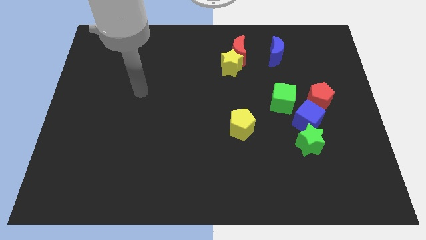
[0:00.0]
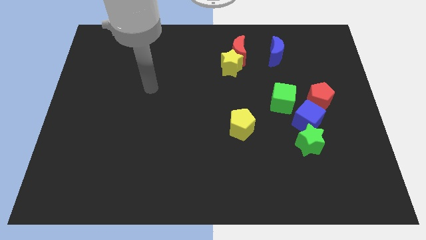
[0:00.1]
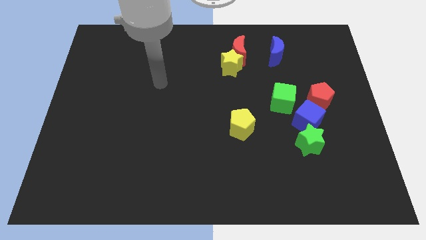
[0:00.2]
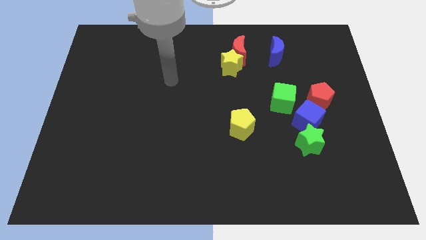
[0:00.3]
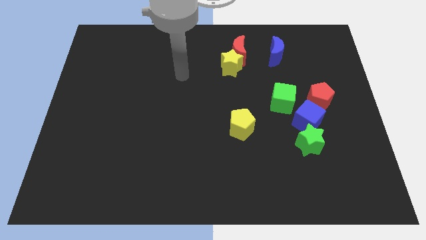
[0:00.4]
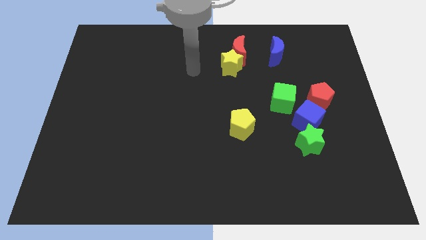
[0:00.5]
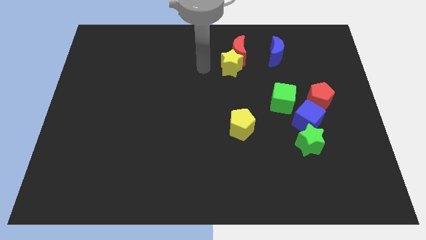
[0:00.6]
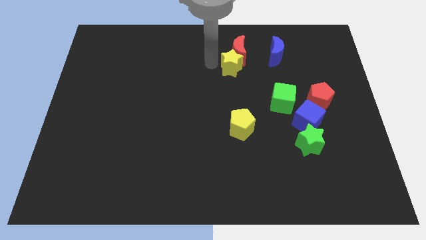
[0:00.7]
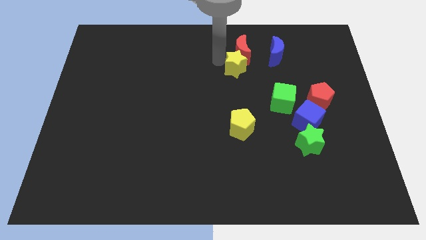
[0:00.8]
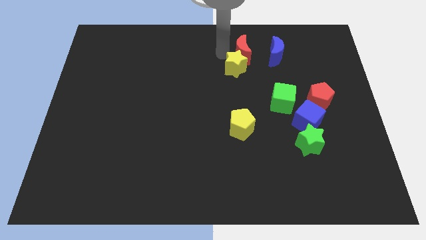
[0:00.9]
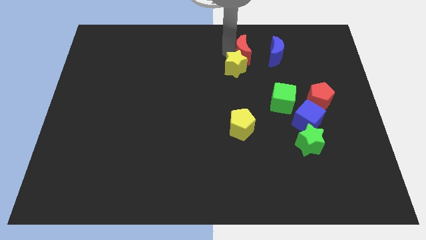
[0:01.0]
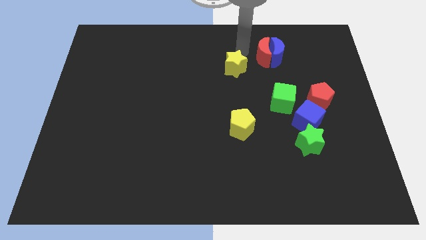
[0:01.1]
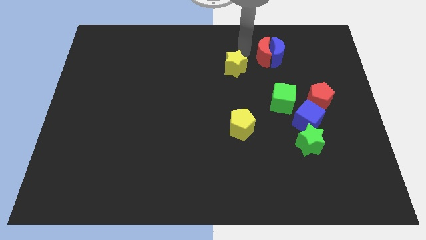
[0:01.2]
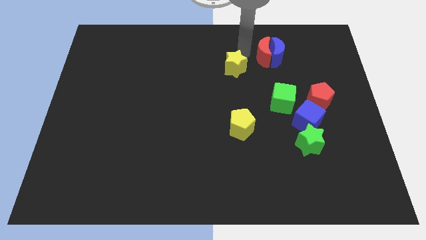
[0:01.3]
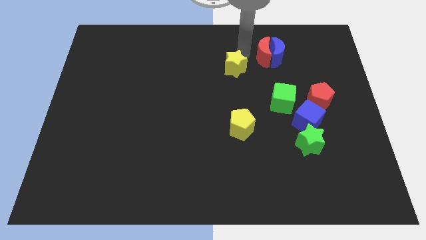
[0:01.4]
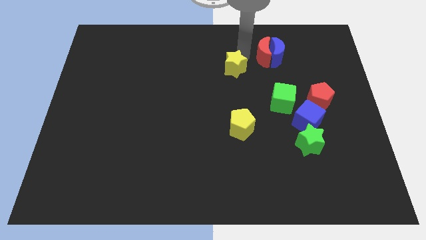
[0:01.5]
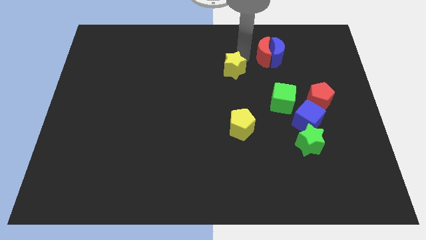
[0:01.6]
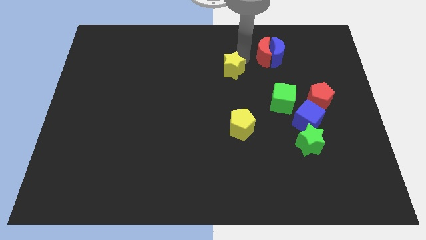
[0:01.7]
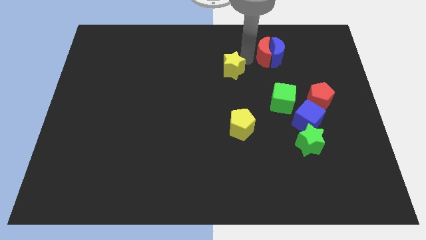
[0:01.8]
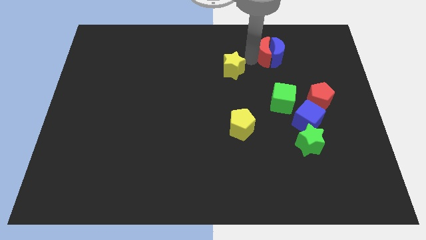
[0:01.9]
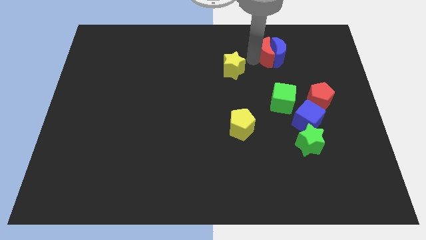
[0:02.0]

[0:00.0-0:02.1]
separate the yellow star from the red moon

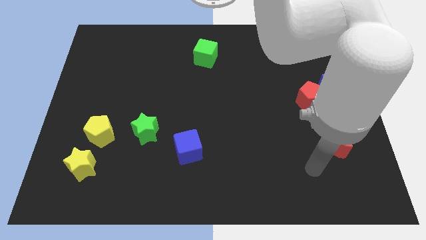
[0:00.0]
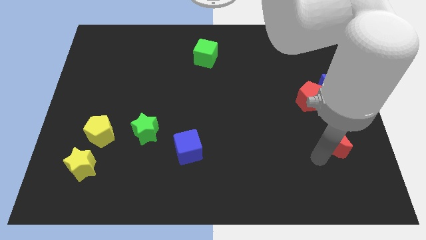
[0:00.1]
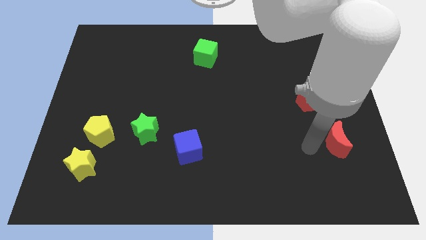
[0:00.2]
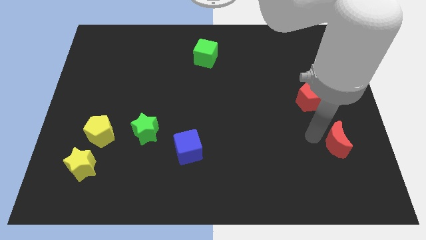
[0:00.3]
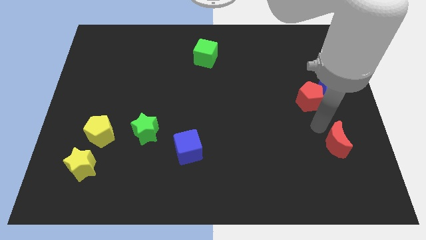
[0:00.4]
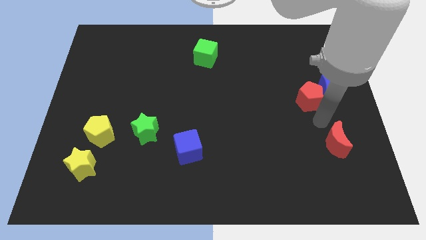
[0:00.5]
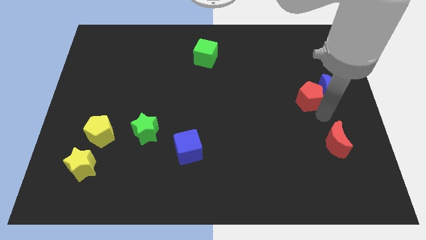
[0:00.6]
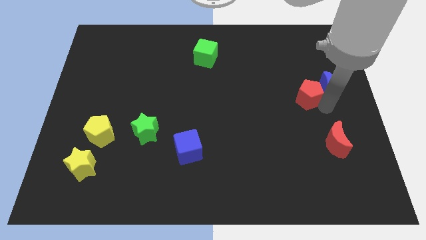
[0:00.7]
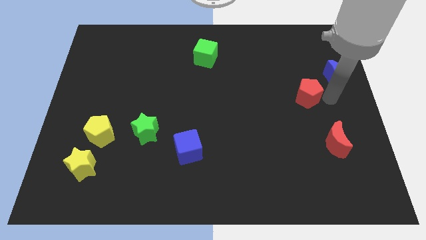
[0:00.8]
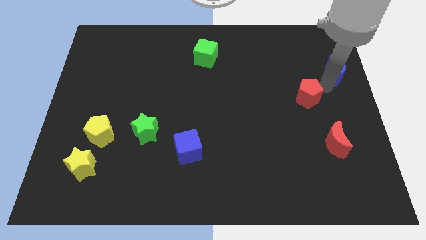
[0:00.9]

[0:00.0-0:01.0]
move the red pentagon away from the blue moon

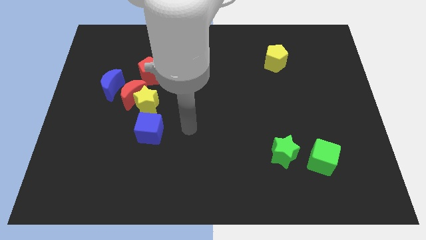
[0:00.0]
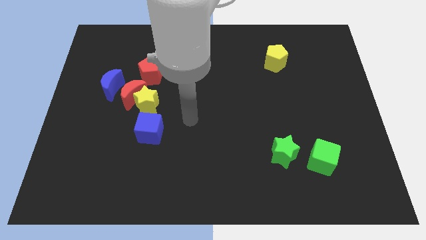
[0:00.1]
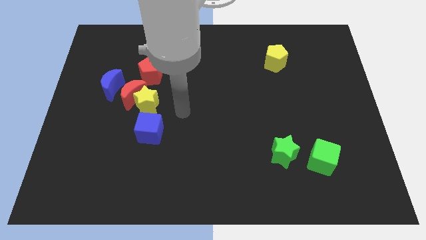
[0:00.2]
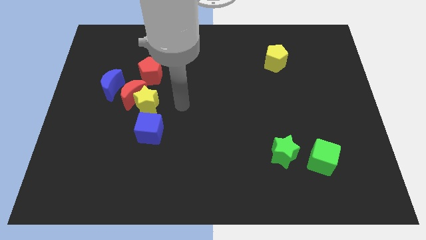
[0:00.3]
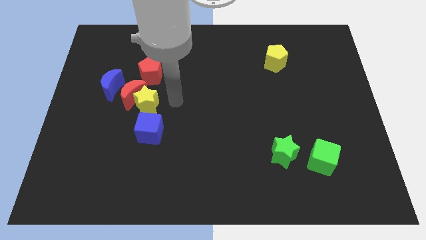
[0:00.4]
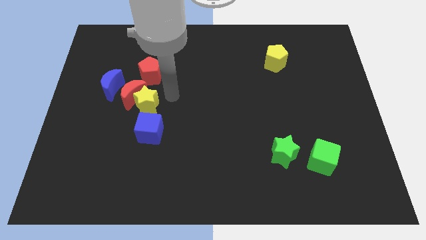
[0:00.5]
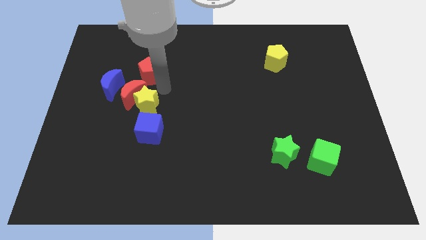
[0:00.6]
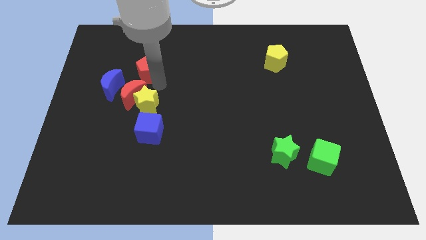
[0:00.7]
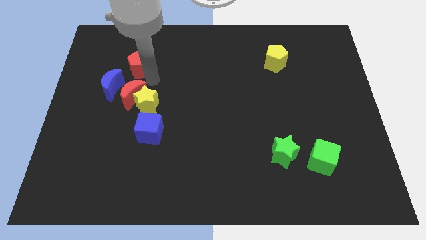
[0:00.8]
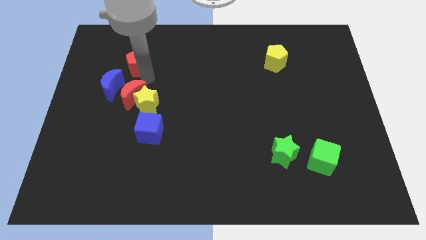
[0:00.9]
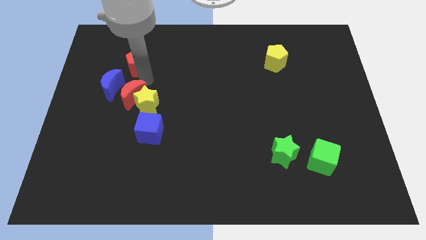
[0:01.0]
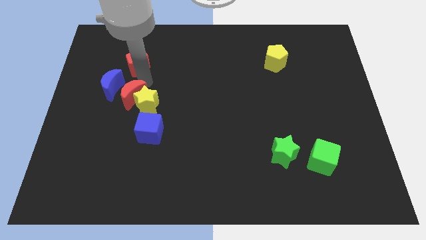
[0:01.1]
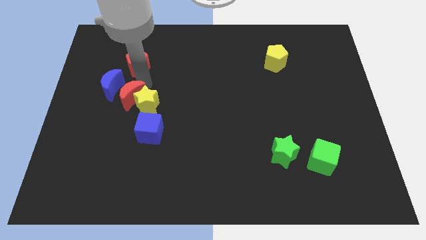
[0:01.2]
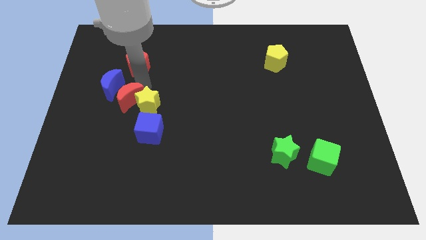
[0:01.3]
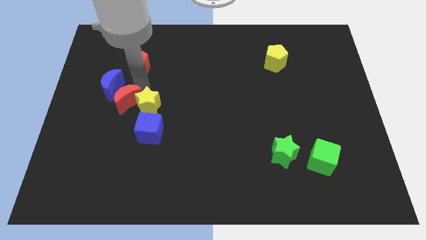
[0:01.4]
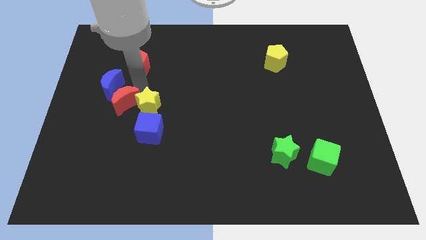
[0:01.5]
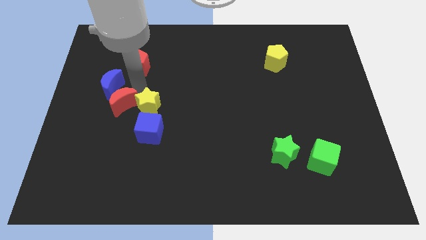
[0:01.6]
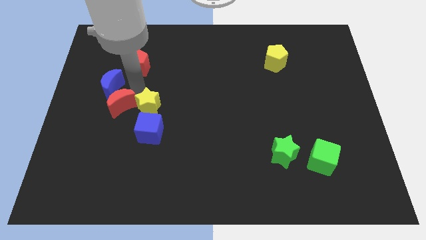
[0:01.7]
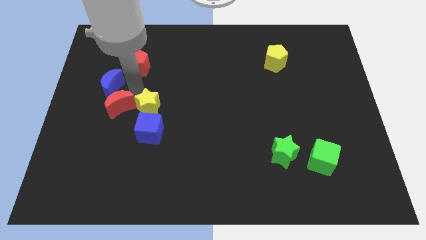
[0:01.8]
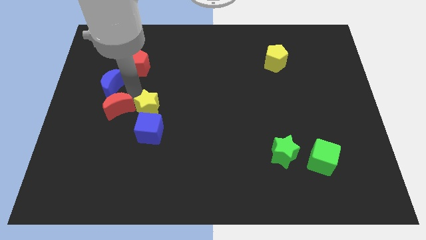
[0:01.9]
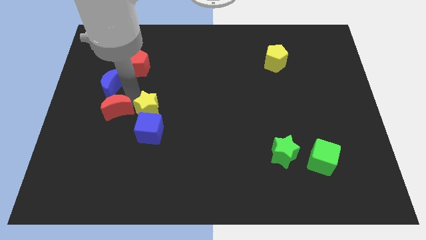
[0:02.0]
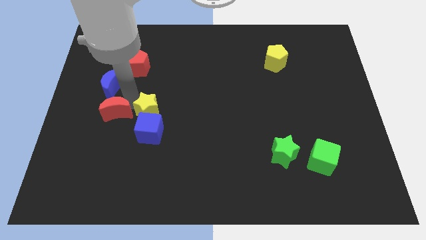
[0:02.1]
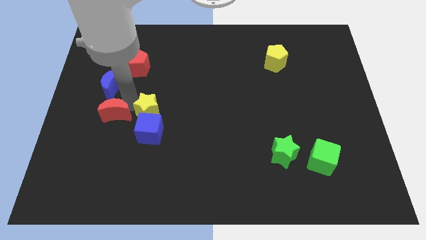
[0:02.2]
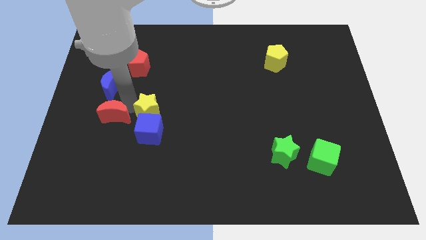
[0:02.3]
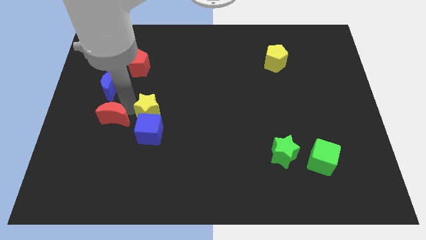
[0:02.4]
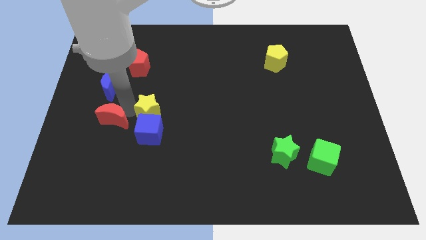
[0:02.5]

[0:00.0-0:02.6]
separate the red moon from the yellow star, blue moon, and red pentagon

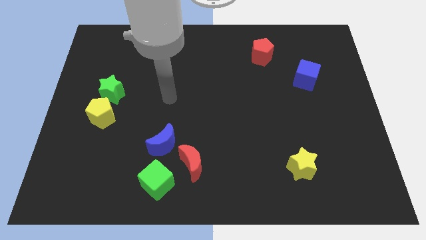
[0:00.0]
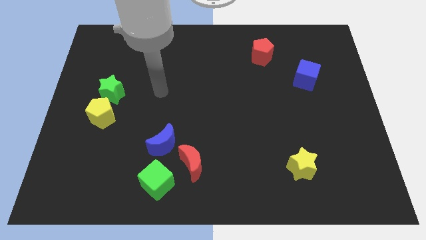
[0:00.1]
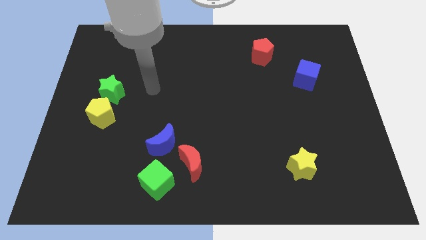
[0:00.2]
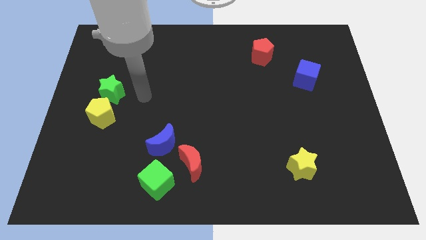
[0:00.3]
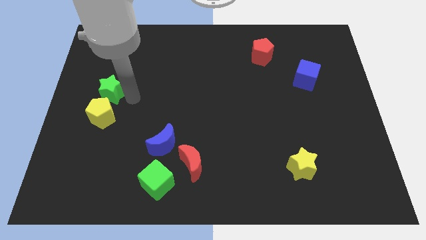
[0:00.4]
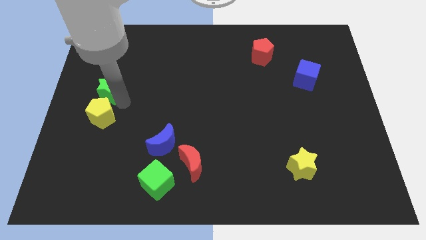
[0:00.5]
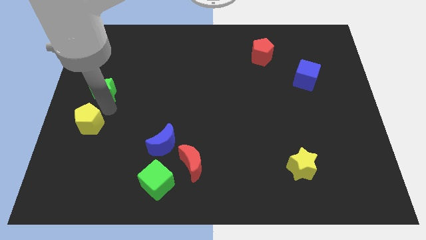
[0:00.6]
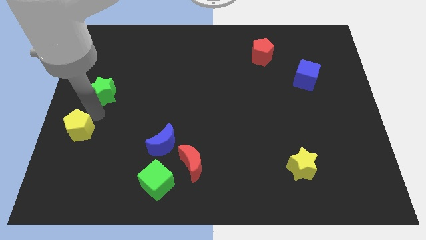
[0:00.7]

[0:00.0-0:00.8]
pull the green star apart from the yellow pentagon

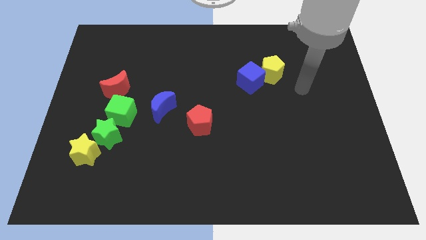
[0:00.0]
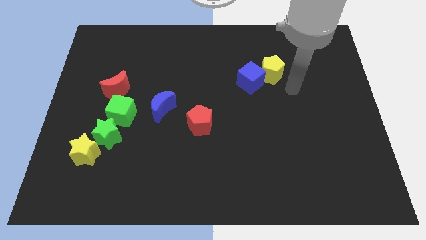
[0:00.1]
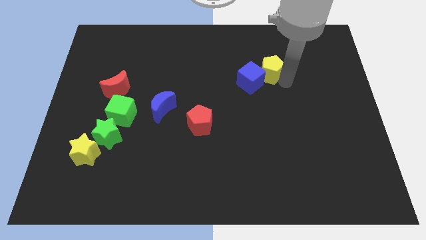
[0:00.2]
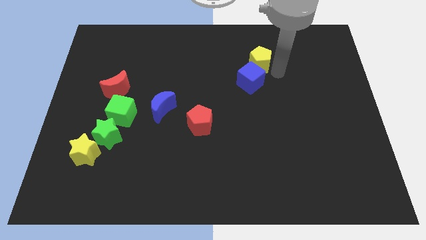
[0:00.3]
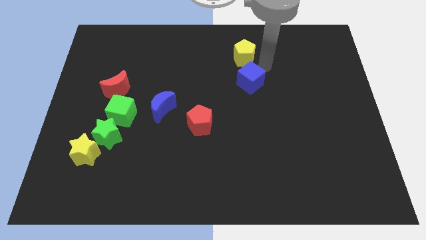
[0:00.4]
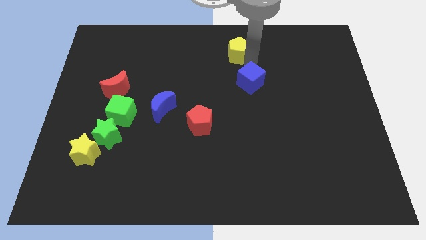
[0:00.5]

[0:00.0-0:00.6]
separate the blue cube from the yellow pentagon

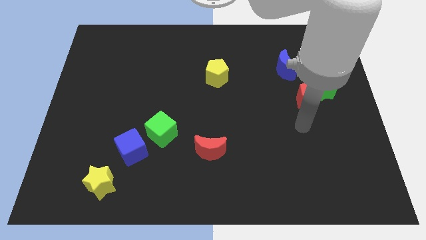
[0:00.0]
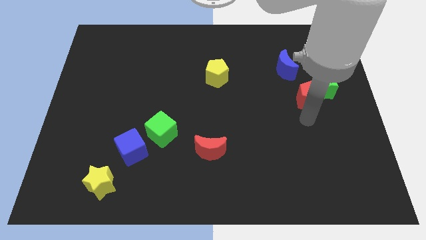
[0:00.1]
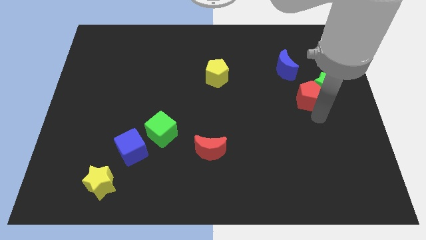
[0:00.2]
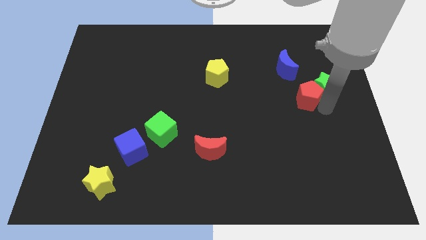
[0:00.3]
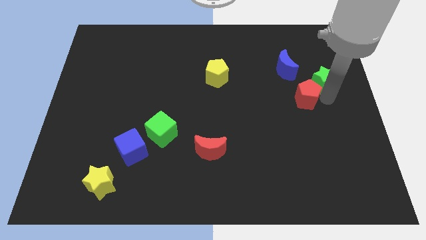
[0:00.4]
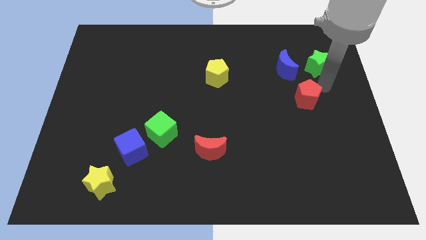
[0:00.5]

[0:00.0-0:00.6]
move the red pentagon away from the green star

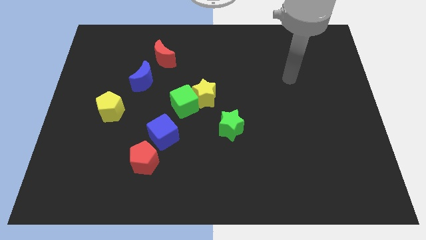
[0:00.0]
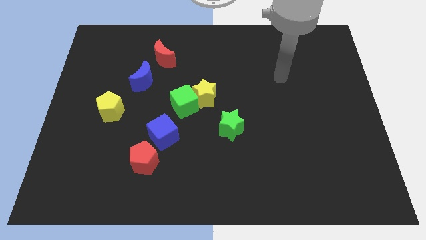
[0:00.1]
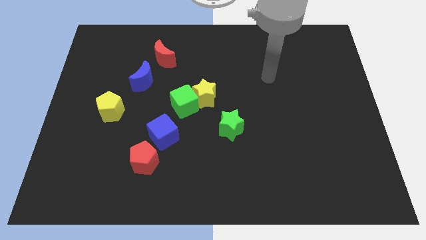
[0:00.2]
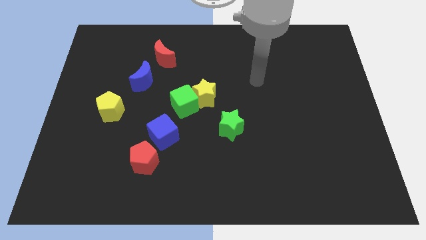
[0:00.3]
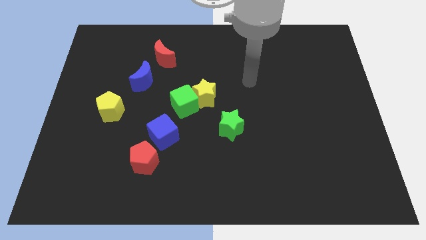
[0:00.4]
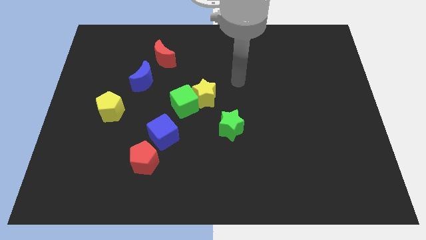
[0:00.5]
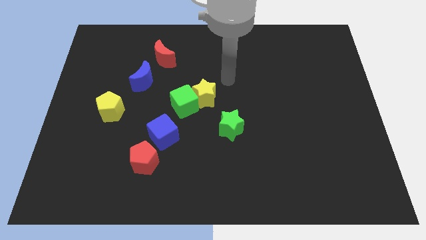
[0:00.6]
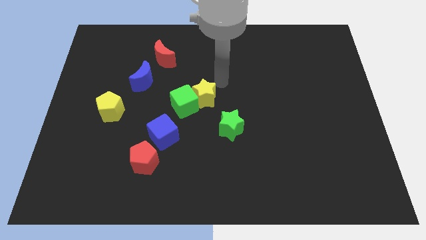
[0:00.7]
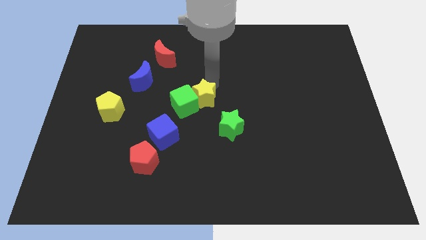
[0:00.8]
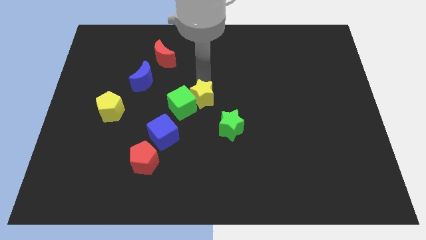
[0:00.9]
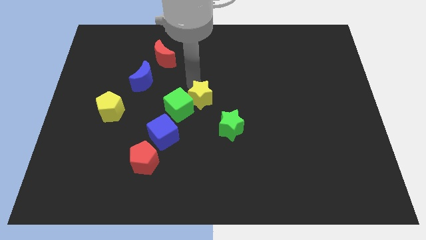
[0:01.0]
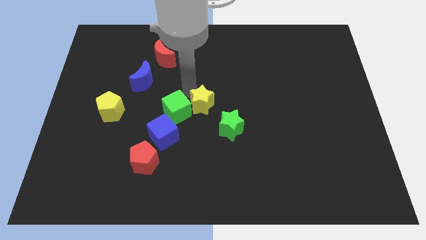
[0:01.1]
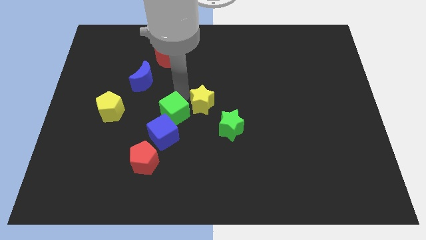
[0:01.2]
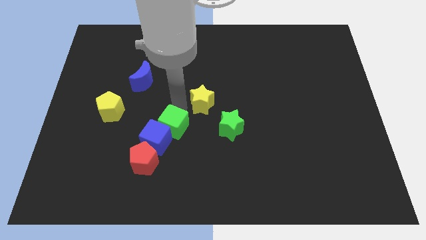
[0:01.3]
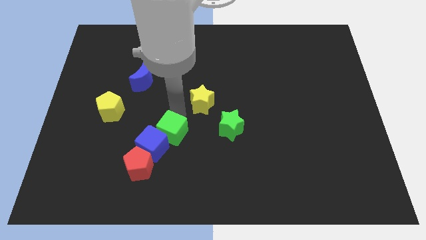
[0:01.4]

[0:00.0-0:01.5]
move the yellow star away from the green cube

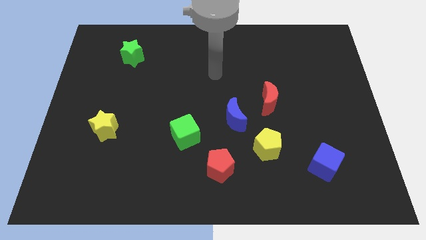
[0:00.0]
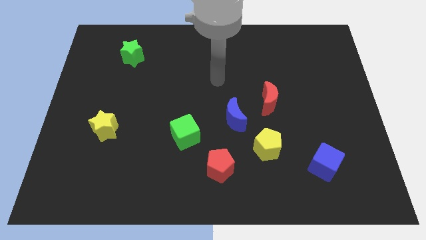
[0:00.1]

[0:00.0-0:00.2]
separate the red moon from the blue moon
